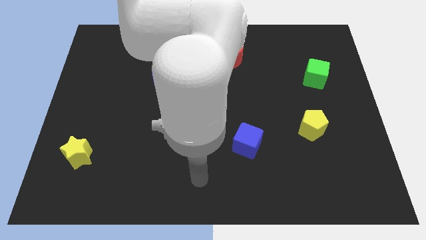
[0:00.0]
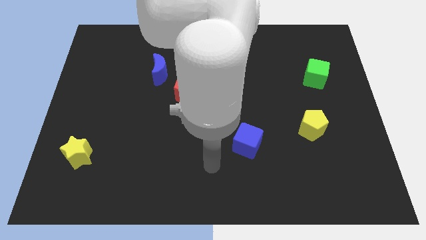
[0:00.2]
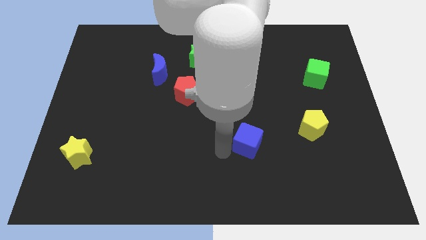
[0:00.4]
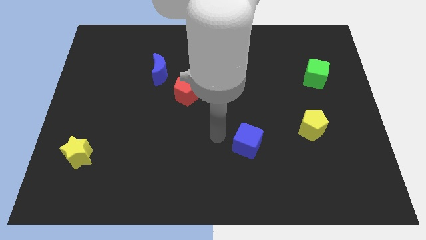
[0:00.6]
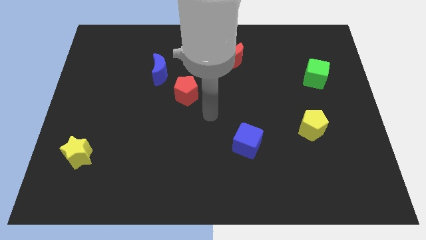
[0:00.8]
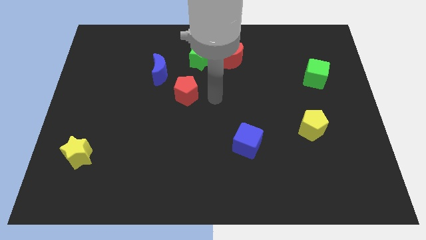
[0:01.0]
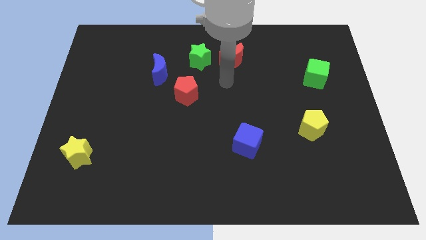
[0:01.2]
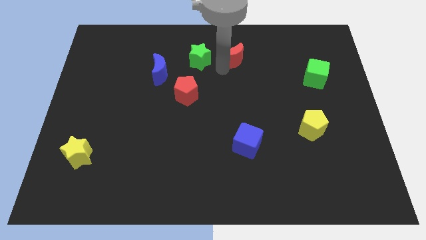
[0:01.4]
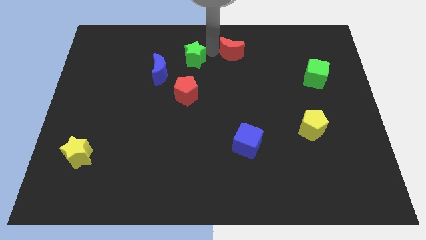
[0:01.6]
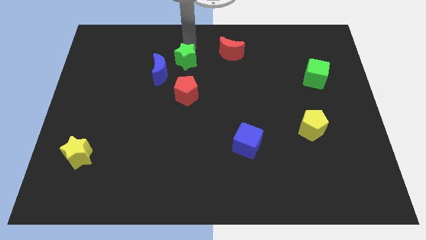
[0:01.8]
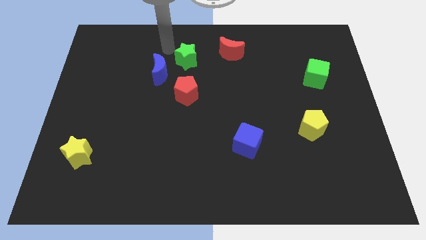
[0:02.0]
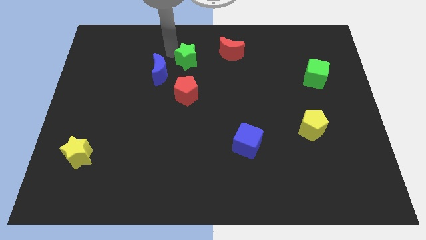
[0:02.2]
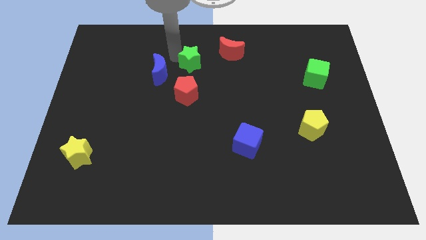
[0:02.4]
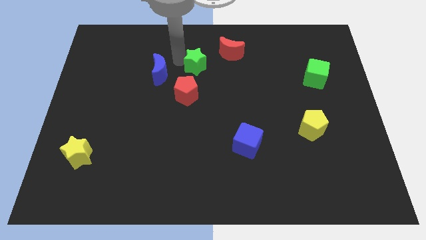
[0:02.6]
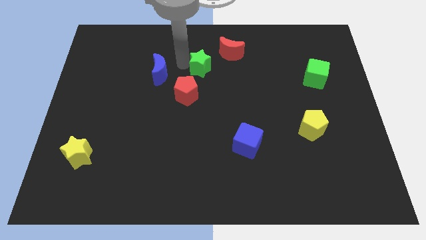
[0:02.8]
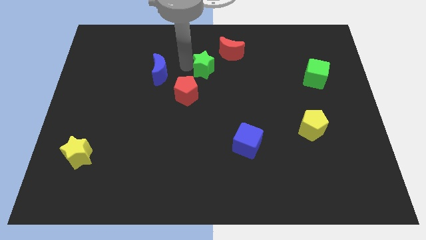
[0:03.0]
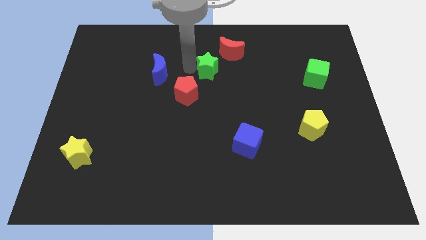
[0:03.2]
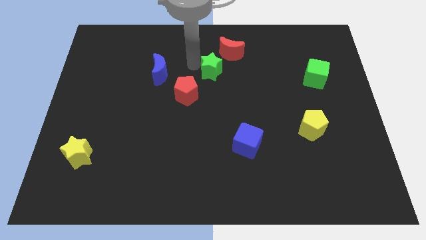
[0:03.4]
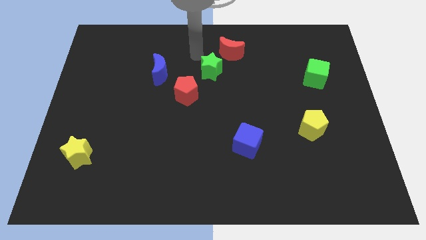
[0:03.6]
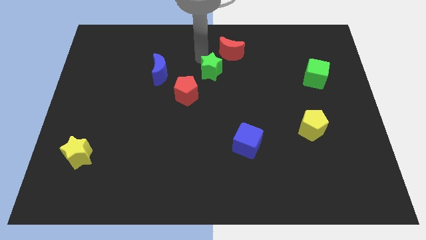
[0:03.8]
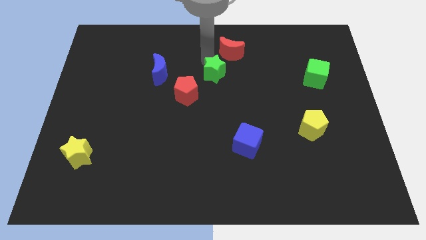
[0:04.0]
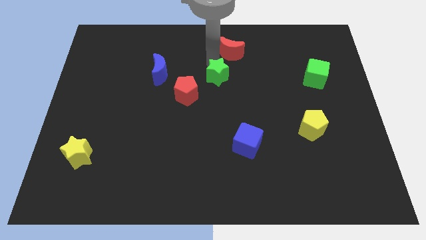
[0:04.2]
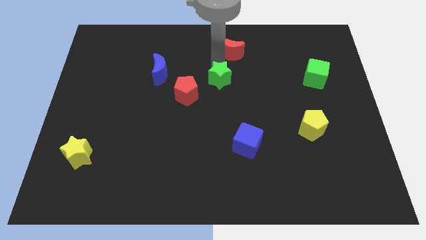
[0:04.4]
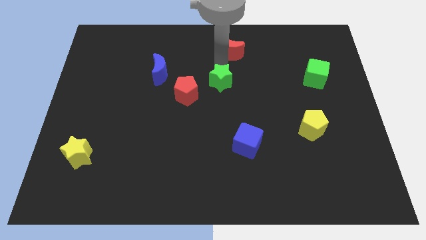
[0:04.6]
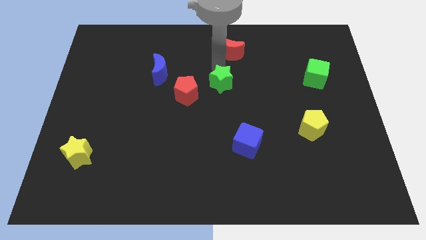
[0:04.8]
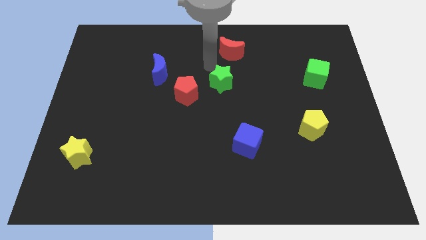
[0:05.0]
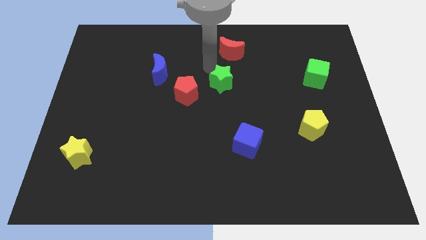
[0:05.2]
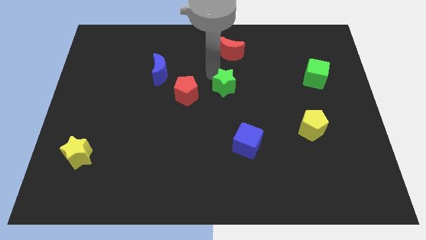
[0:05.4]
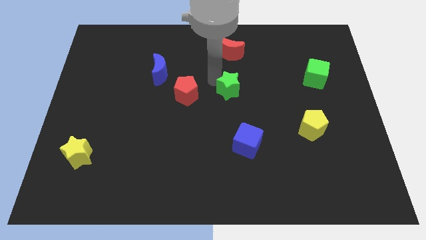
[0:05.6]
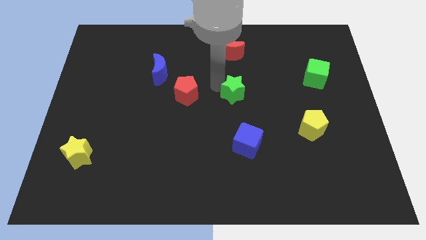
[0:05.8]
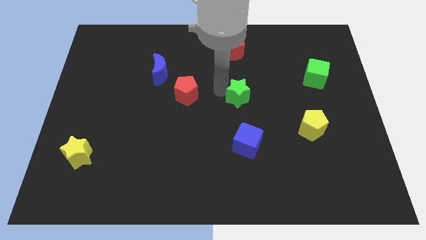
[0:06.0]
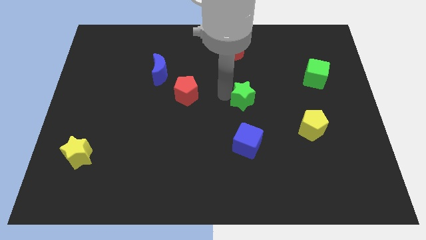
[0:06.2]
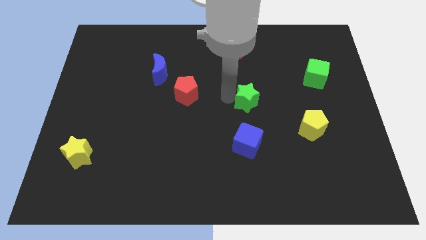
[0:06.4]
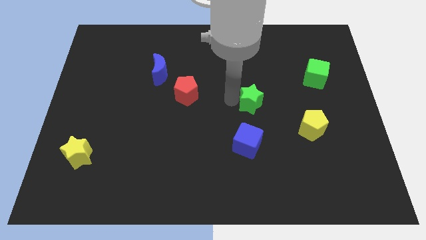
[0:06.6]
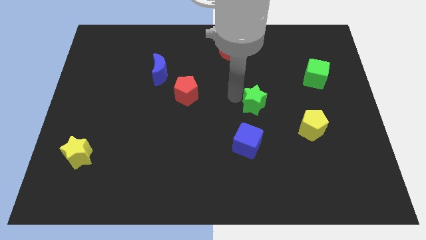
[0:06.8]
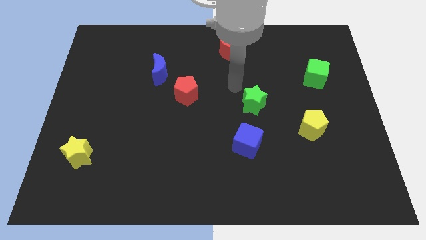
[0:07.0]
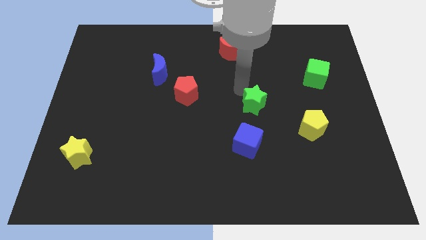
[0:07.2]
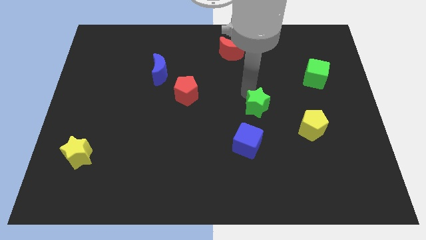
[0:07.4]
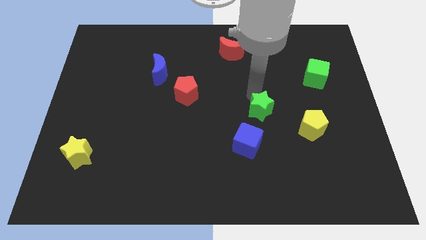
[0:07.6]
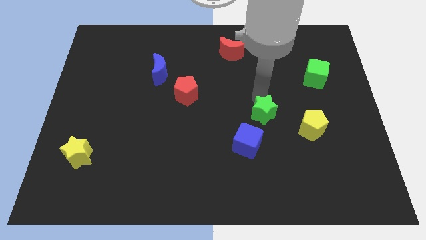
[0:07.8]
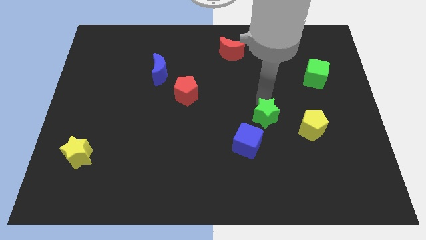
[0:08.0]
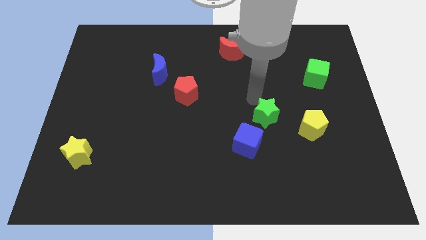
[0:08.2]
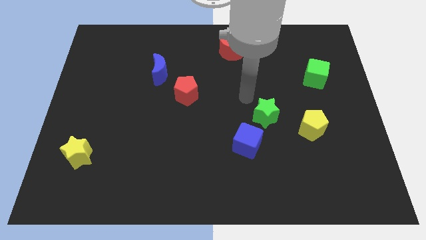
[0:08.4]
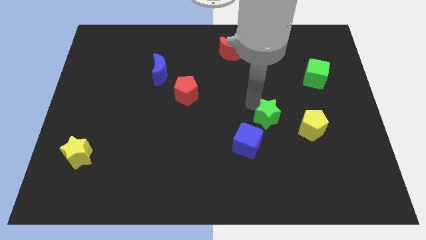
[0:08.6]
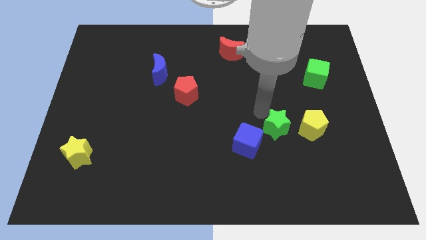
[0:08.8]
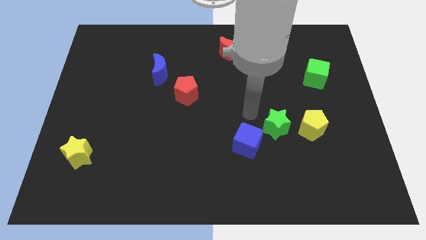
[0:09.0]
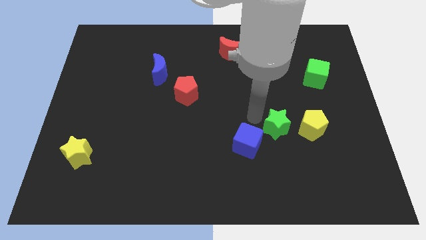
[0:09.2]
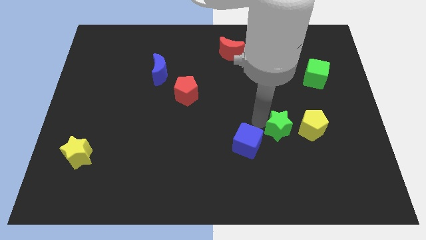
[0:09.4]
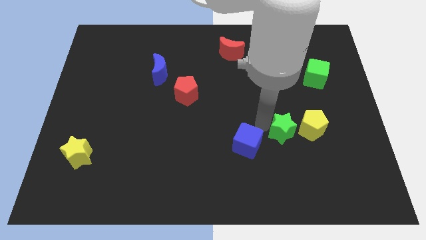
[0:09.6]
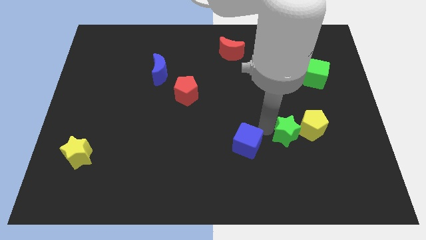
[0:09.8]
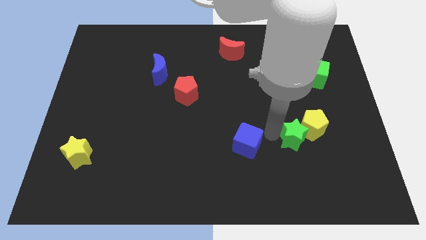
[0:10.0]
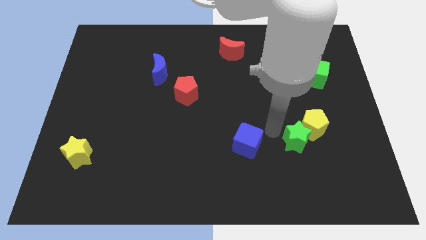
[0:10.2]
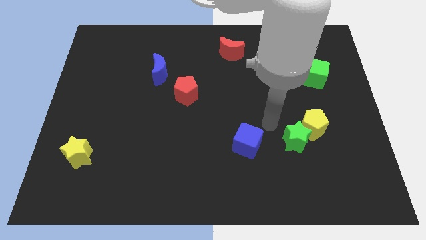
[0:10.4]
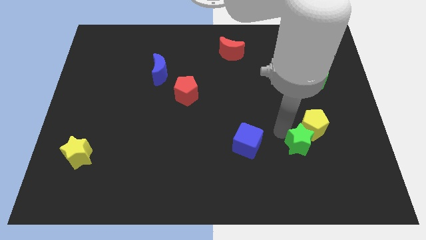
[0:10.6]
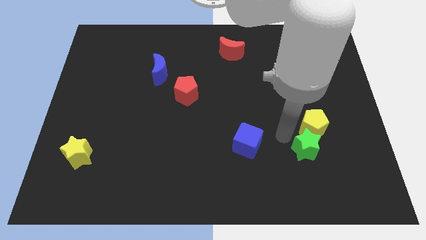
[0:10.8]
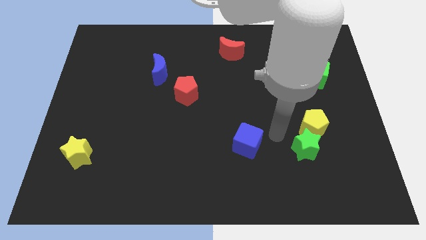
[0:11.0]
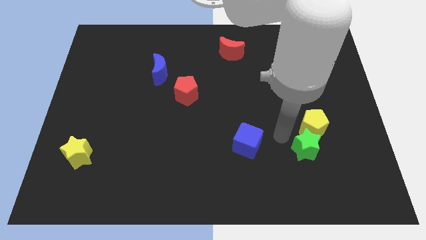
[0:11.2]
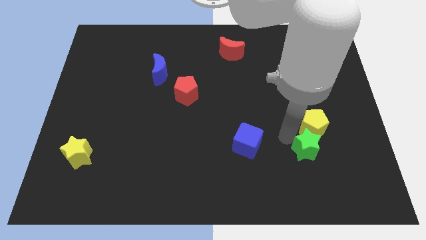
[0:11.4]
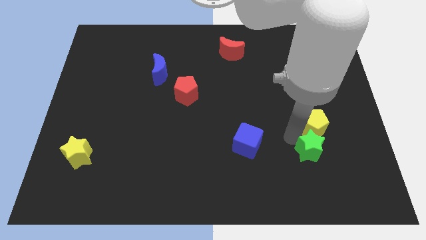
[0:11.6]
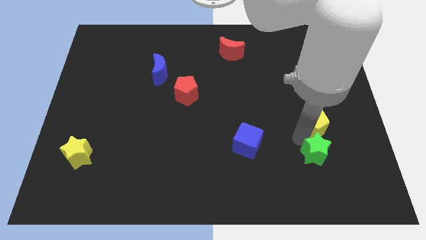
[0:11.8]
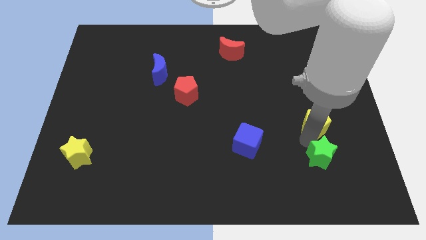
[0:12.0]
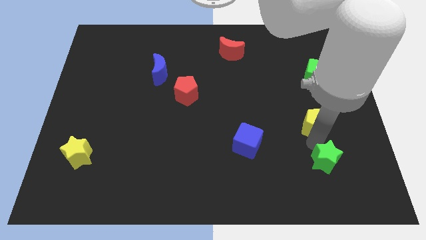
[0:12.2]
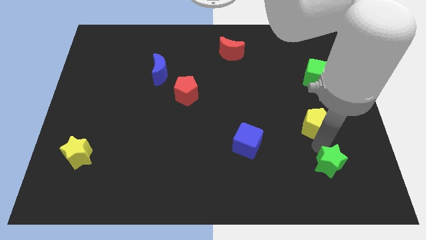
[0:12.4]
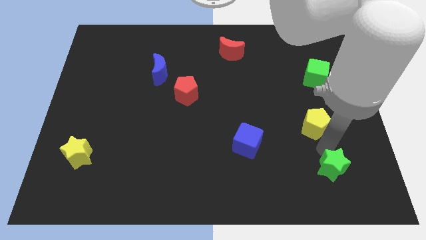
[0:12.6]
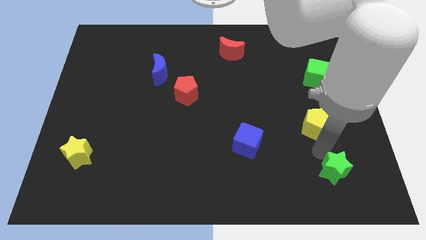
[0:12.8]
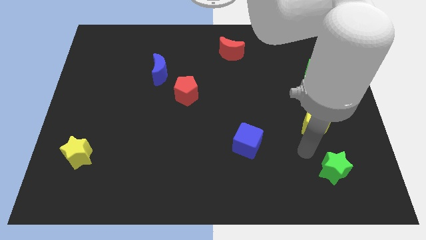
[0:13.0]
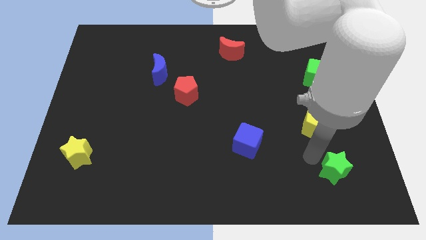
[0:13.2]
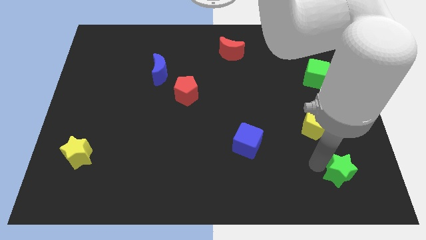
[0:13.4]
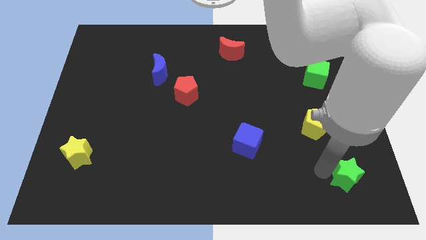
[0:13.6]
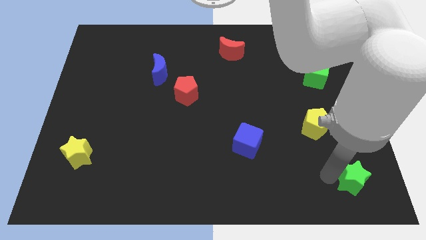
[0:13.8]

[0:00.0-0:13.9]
slide the green star to the bottom right of the board
